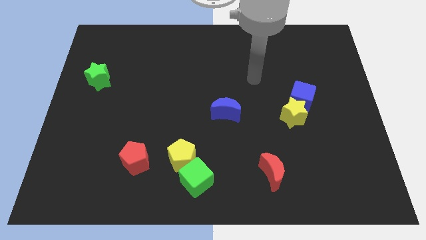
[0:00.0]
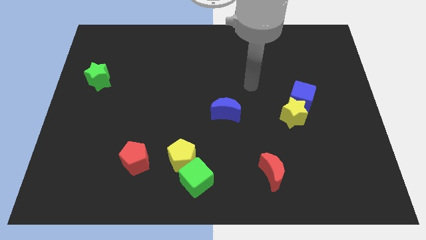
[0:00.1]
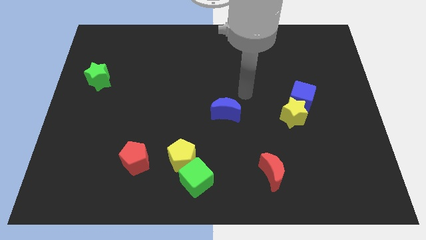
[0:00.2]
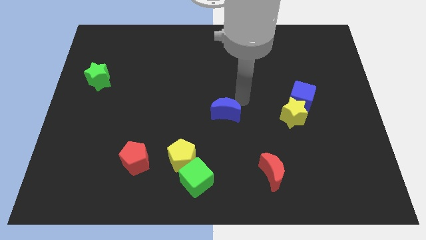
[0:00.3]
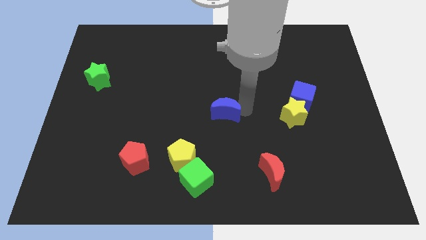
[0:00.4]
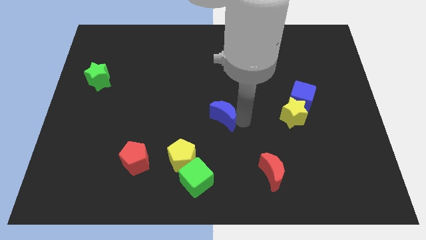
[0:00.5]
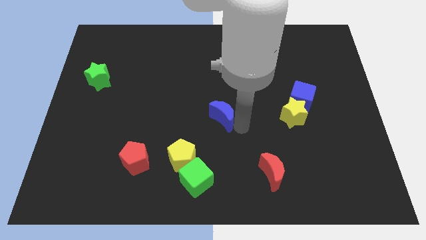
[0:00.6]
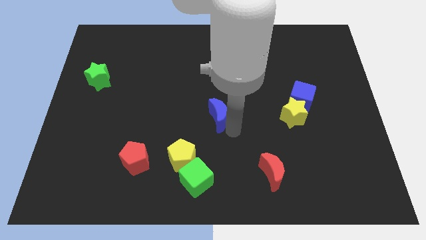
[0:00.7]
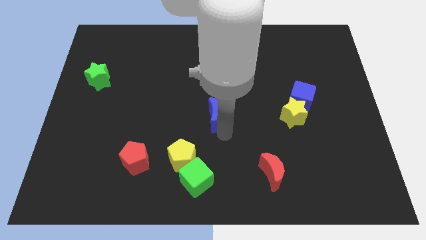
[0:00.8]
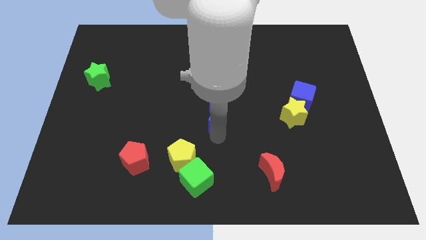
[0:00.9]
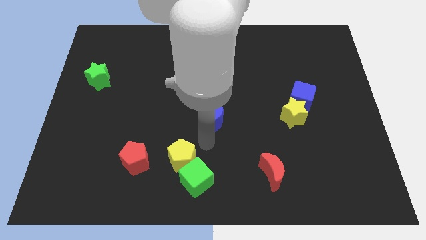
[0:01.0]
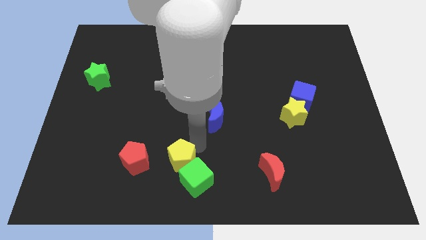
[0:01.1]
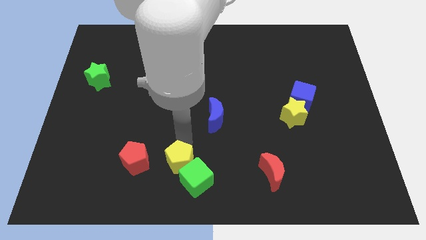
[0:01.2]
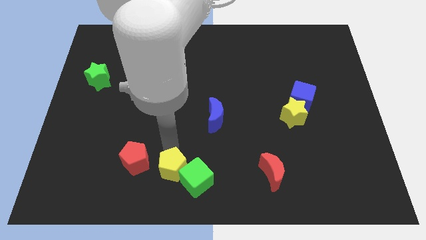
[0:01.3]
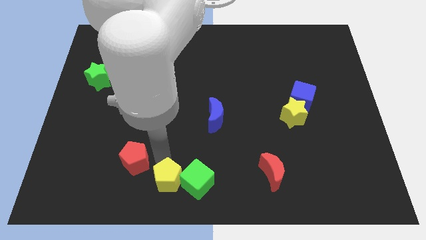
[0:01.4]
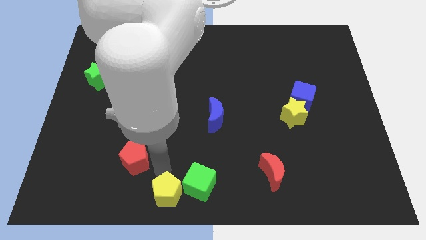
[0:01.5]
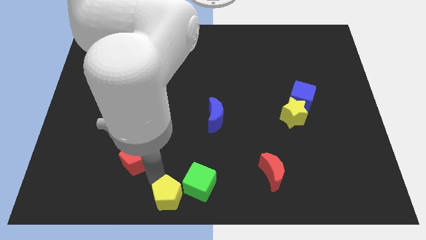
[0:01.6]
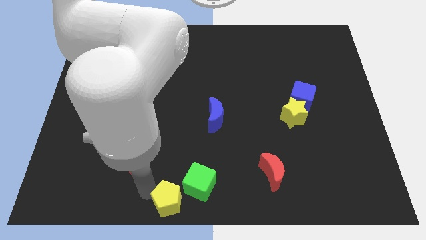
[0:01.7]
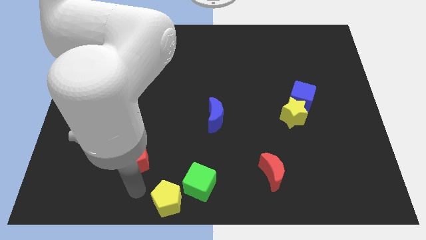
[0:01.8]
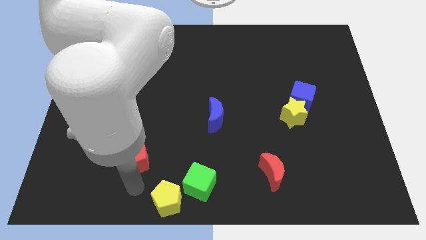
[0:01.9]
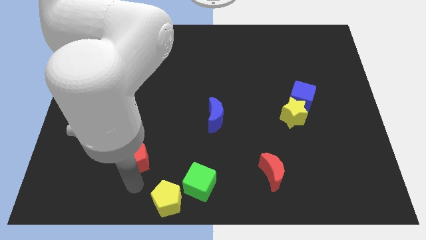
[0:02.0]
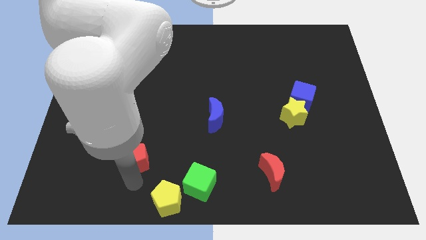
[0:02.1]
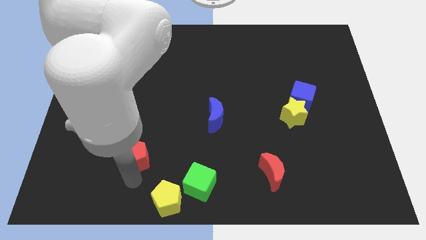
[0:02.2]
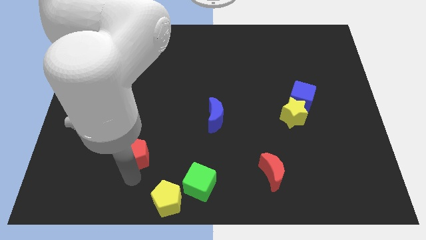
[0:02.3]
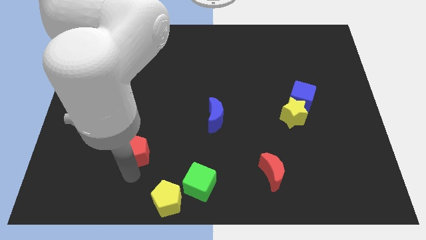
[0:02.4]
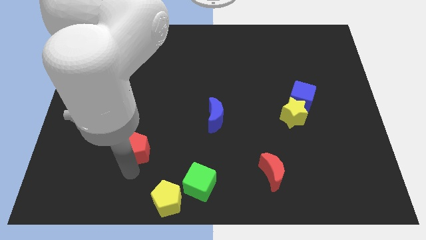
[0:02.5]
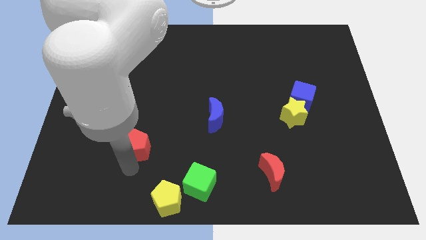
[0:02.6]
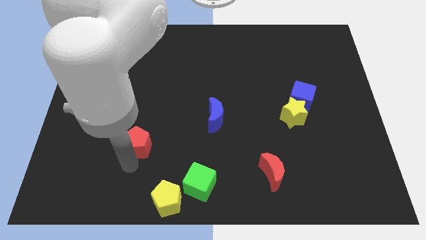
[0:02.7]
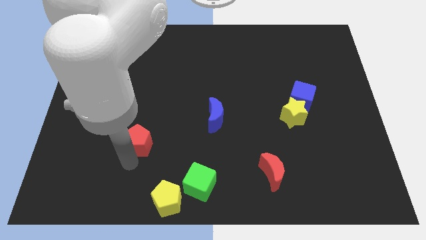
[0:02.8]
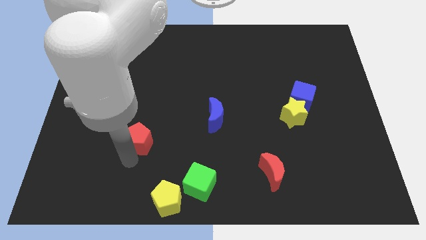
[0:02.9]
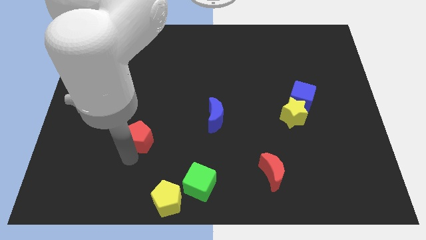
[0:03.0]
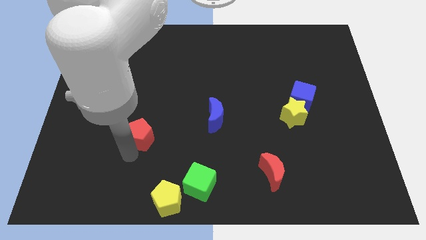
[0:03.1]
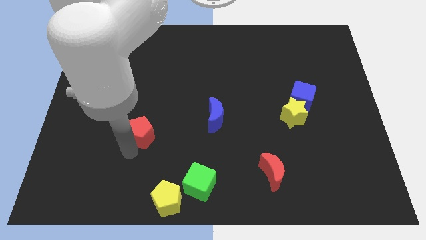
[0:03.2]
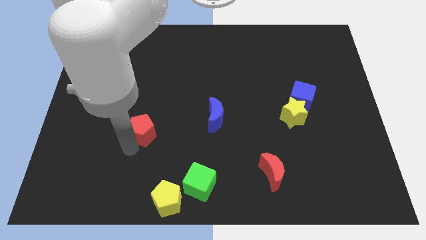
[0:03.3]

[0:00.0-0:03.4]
slightly move the red pentagon up

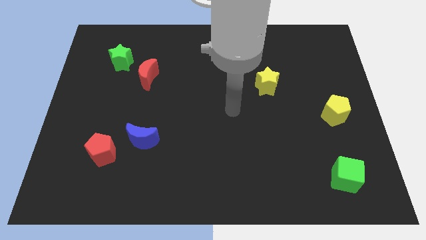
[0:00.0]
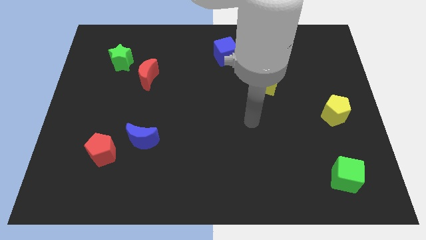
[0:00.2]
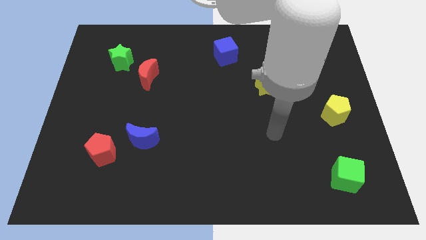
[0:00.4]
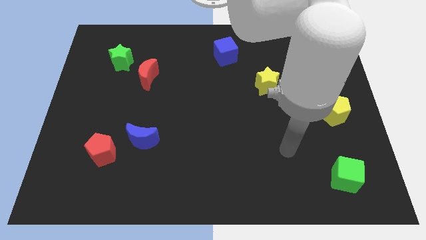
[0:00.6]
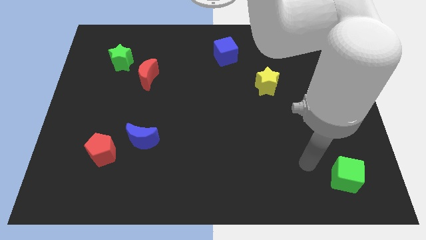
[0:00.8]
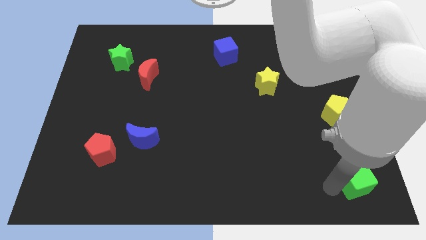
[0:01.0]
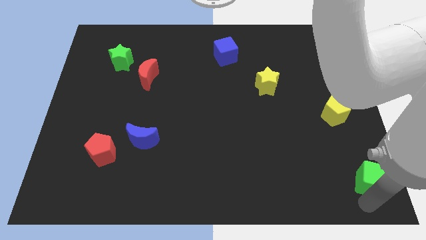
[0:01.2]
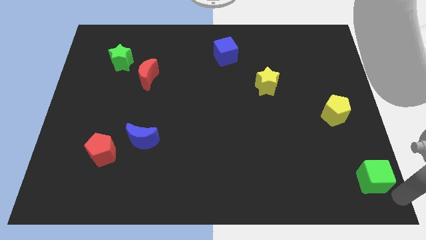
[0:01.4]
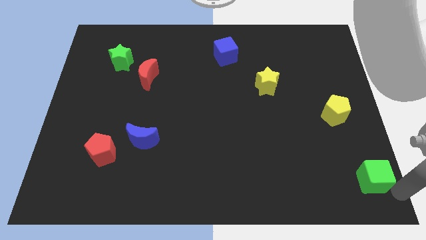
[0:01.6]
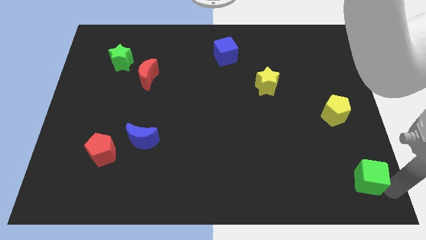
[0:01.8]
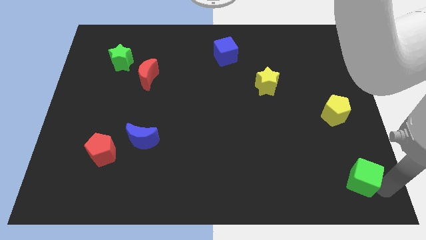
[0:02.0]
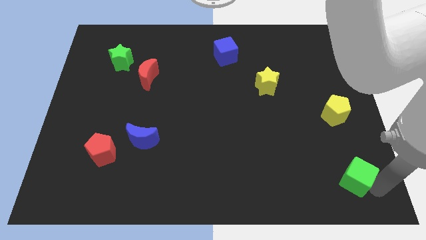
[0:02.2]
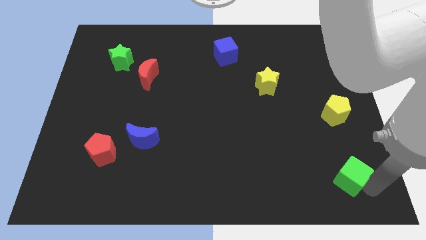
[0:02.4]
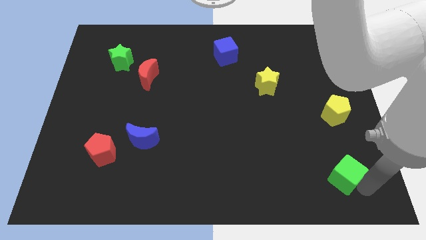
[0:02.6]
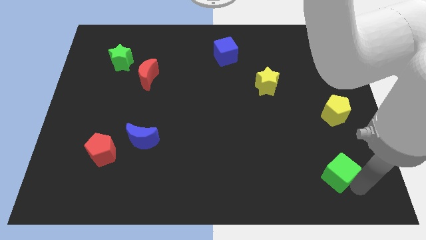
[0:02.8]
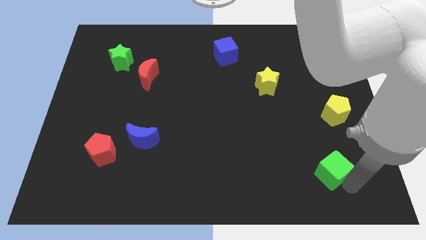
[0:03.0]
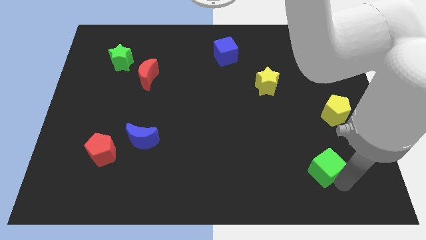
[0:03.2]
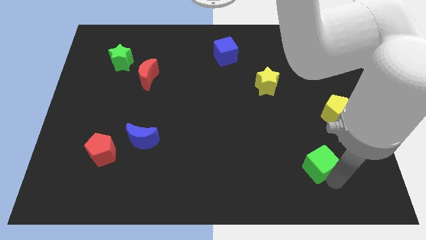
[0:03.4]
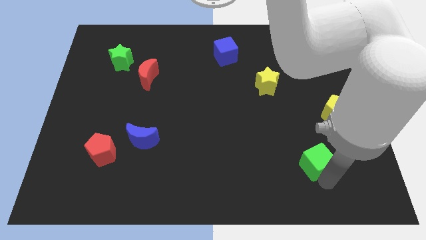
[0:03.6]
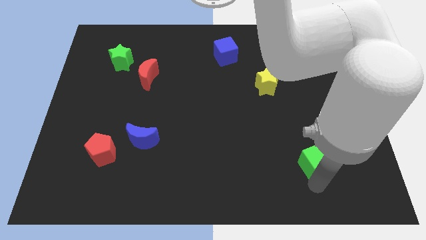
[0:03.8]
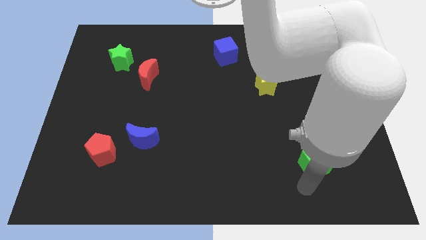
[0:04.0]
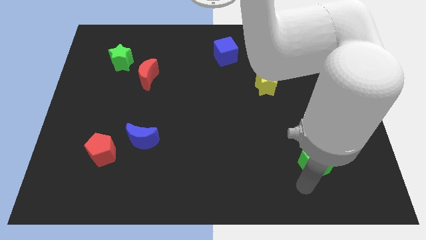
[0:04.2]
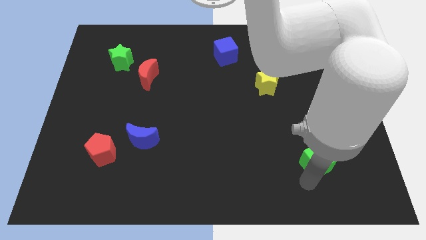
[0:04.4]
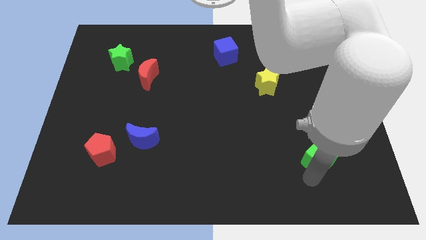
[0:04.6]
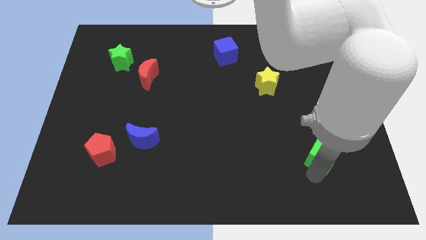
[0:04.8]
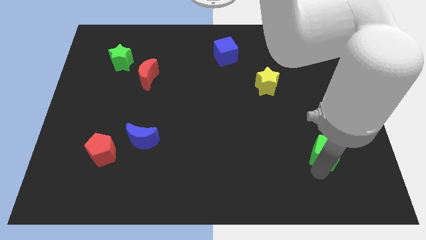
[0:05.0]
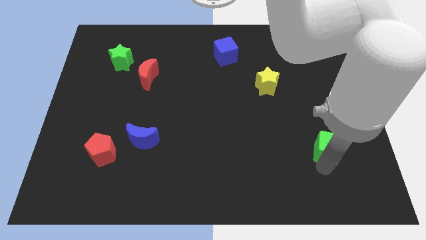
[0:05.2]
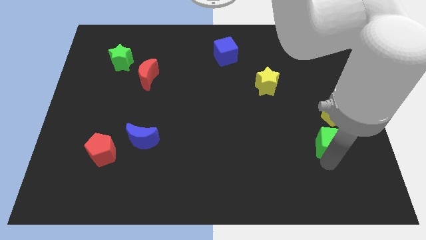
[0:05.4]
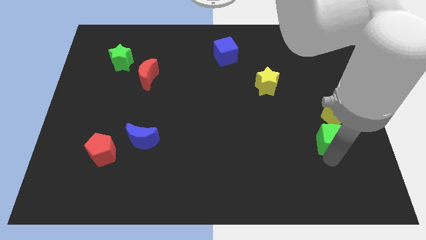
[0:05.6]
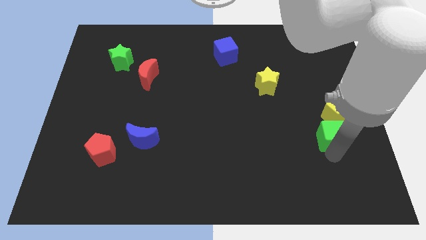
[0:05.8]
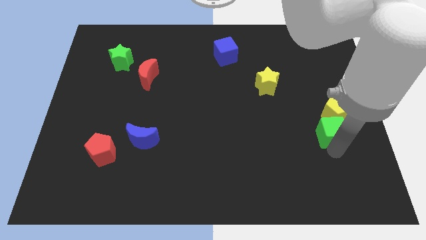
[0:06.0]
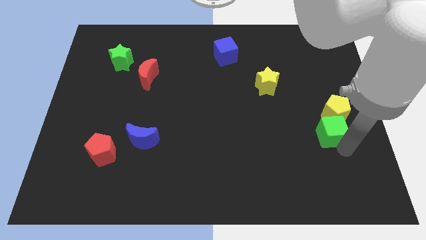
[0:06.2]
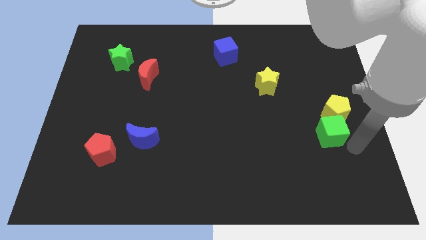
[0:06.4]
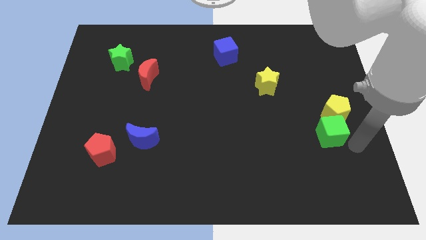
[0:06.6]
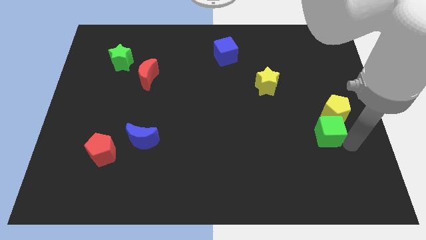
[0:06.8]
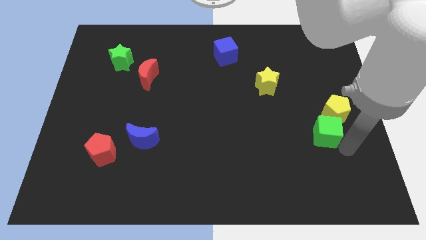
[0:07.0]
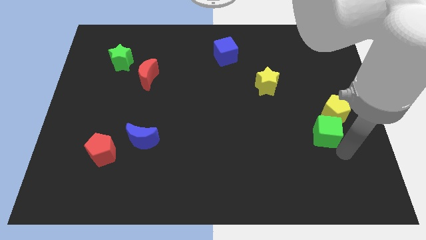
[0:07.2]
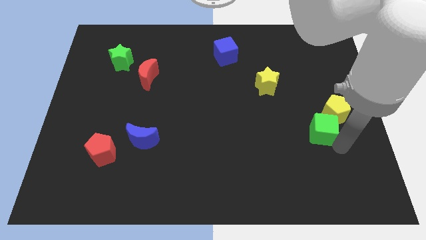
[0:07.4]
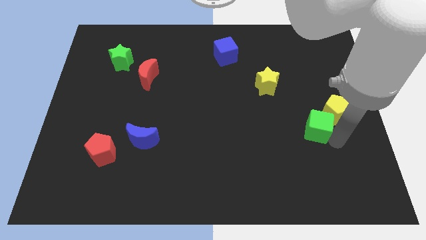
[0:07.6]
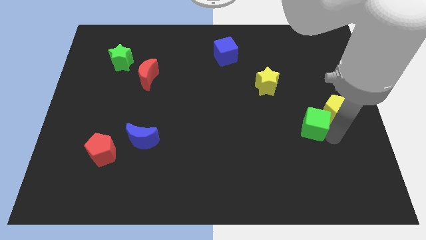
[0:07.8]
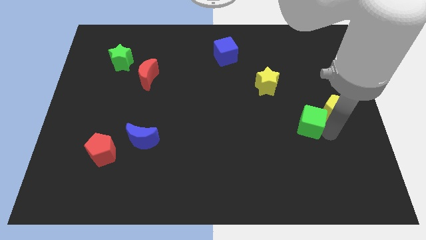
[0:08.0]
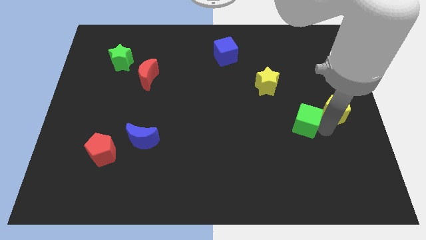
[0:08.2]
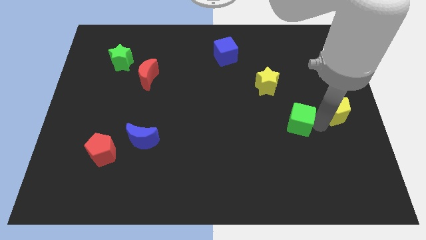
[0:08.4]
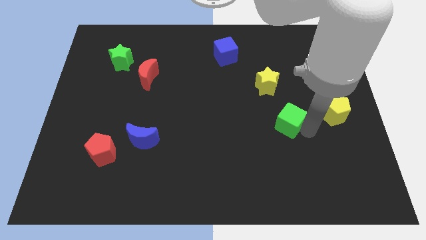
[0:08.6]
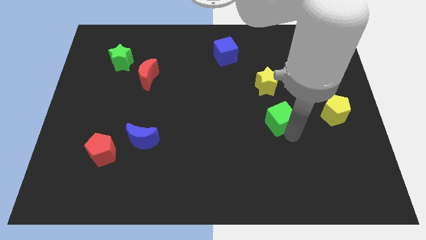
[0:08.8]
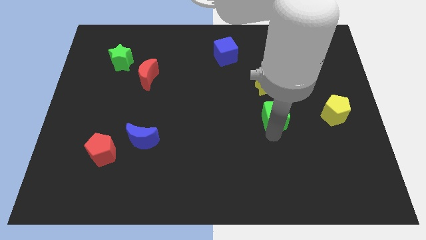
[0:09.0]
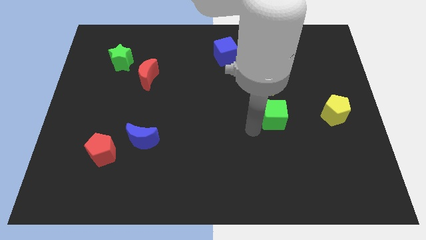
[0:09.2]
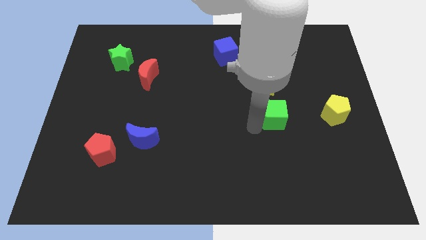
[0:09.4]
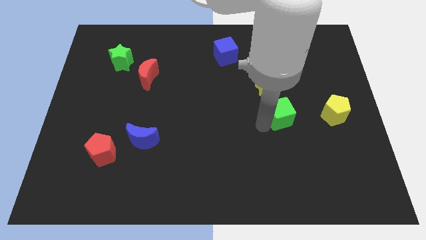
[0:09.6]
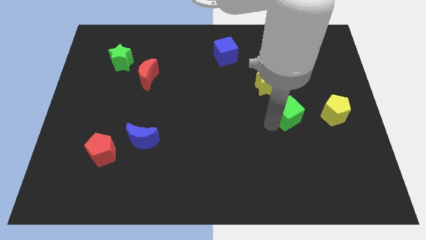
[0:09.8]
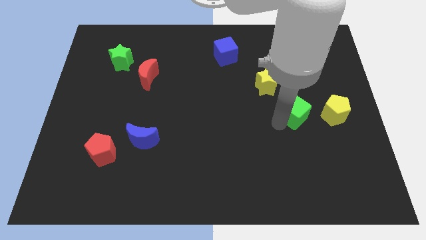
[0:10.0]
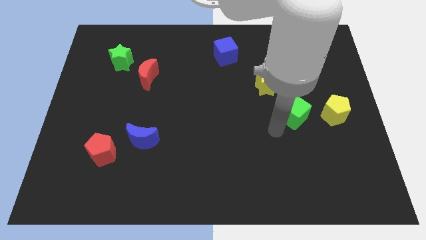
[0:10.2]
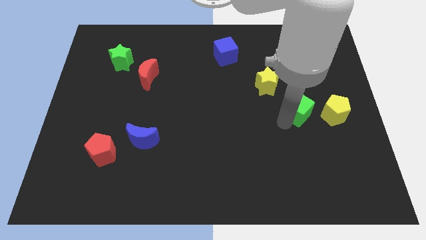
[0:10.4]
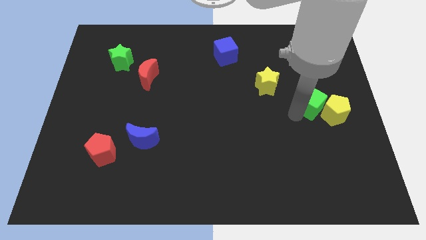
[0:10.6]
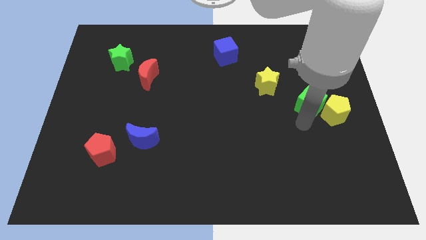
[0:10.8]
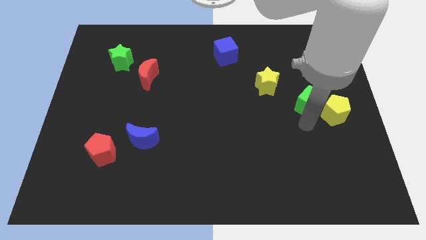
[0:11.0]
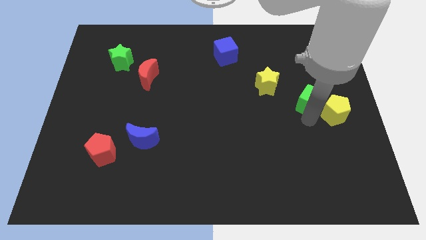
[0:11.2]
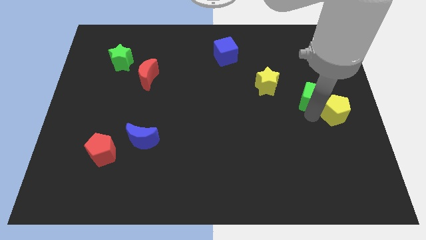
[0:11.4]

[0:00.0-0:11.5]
push the green cube upwards
